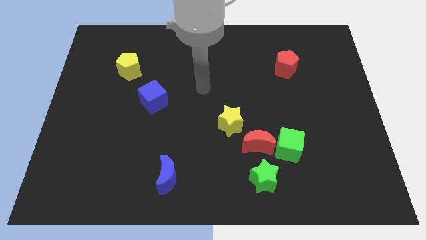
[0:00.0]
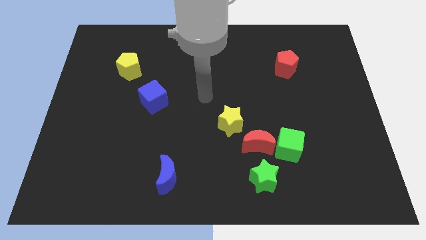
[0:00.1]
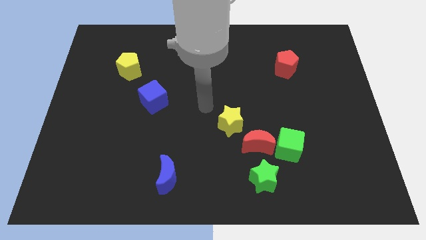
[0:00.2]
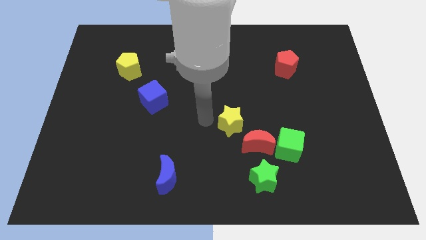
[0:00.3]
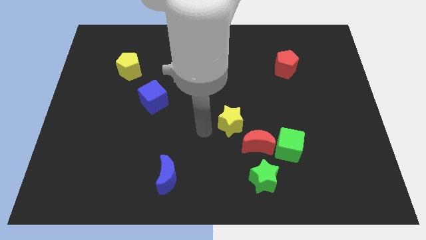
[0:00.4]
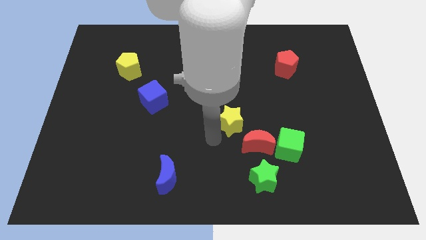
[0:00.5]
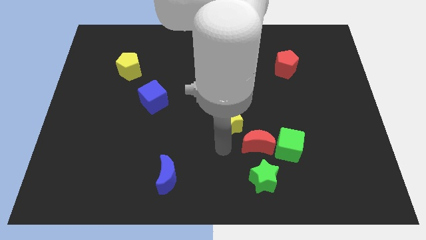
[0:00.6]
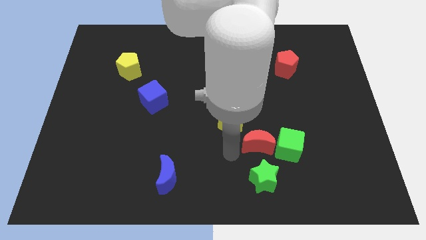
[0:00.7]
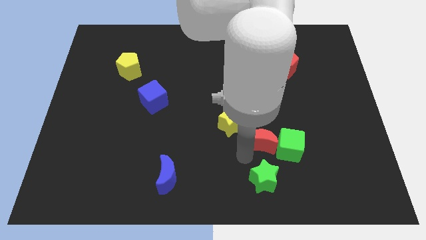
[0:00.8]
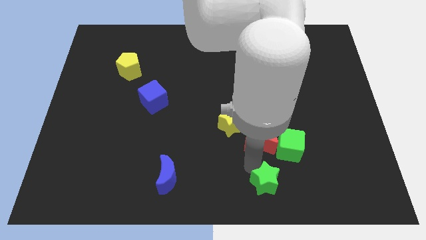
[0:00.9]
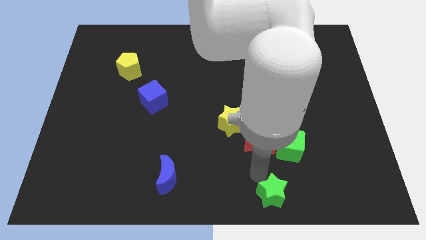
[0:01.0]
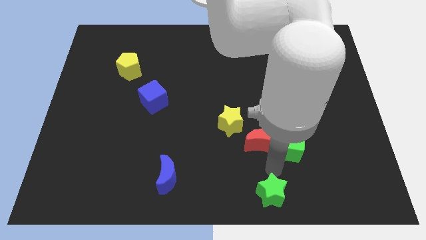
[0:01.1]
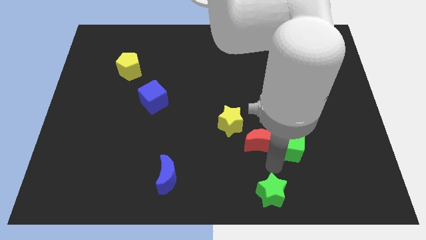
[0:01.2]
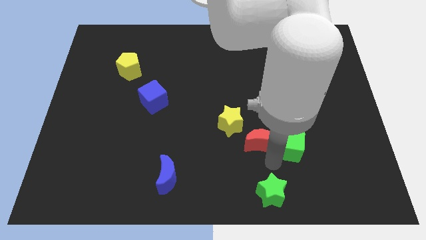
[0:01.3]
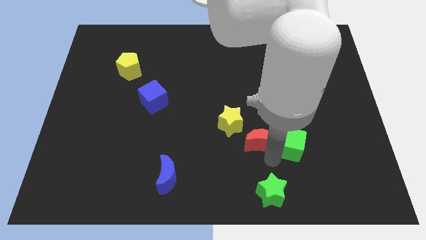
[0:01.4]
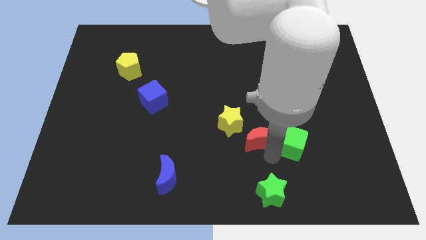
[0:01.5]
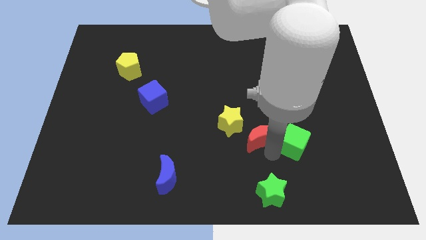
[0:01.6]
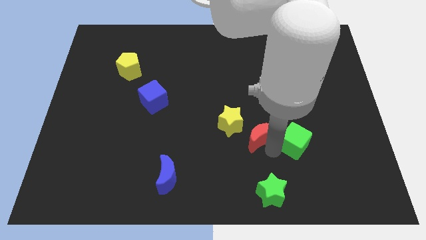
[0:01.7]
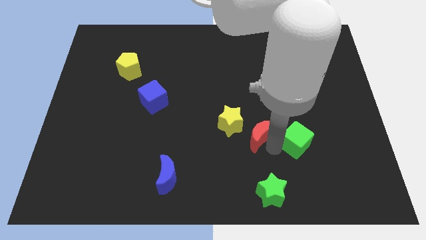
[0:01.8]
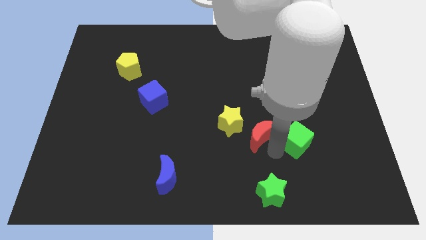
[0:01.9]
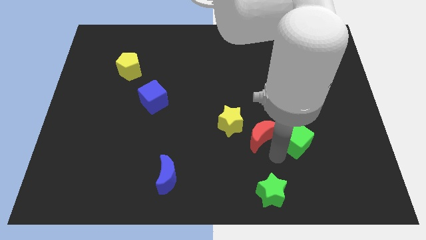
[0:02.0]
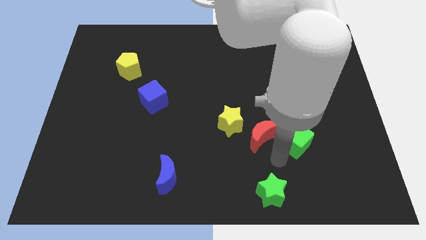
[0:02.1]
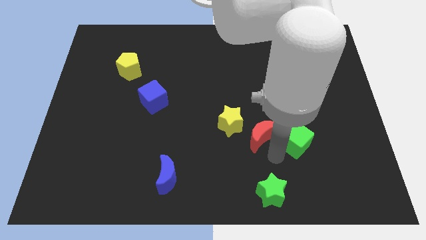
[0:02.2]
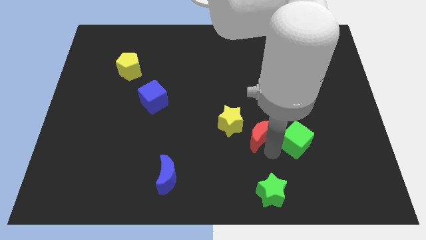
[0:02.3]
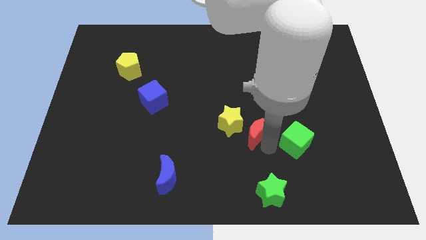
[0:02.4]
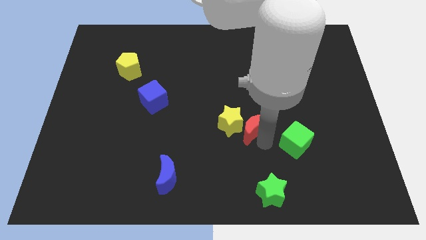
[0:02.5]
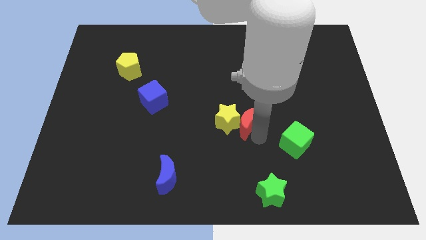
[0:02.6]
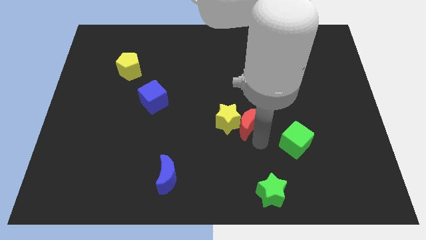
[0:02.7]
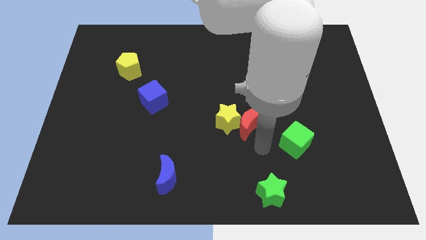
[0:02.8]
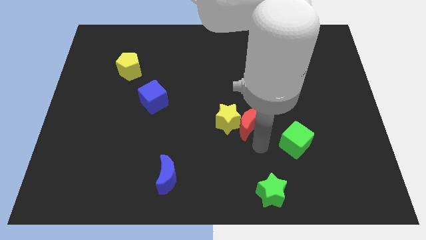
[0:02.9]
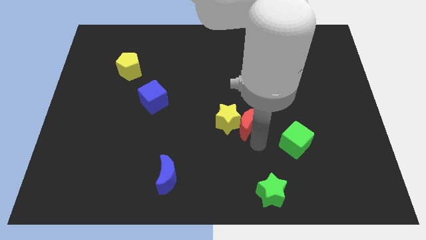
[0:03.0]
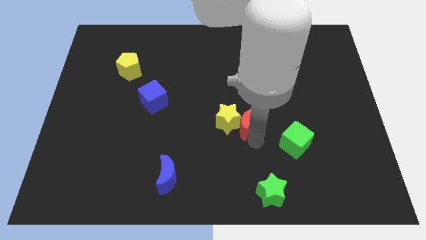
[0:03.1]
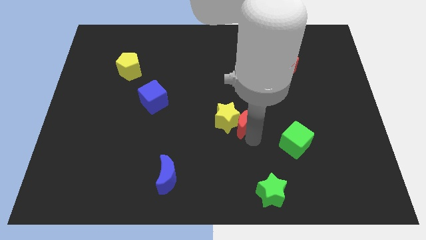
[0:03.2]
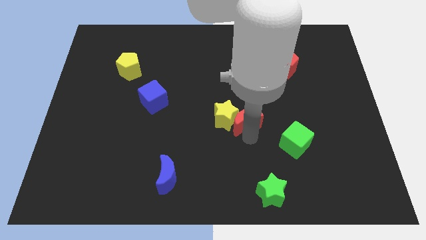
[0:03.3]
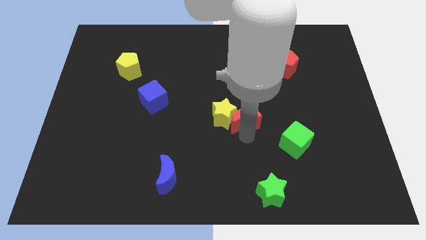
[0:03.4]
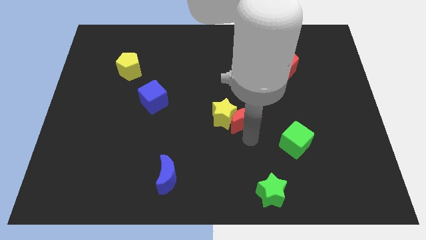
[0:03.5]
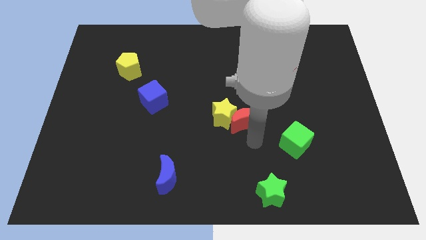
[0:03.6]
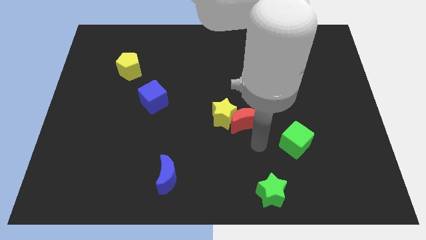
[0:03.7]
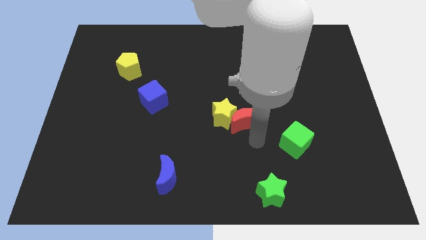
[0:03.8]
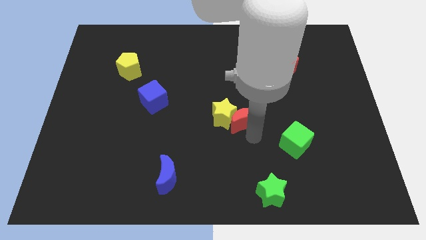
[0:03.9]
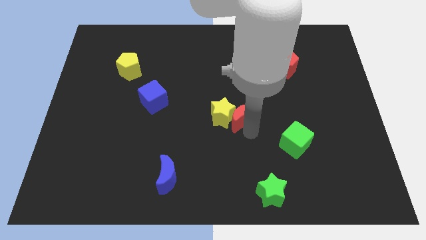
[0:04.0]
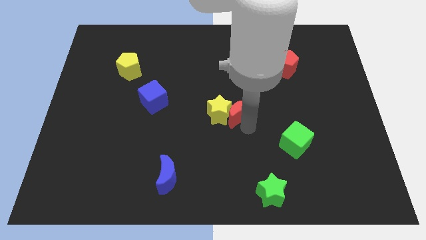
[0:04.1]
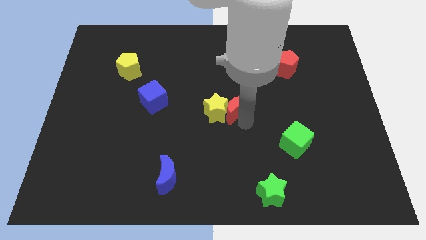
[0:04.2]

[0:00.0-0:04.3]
move the red moon away from the green cube, yellow star, and green star

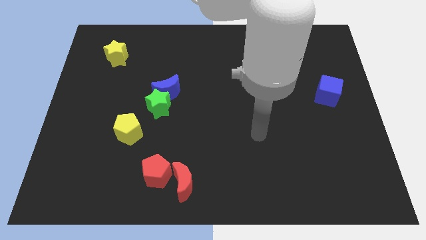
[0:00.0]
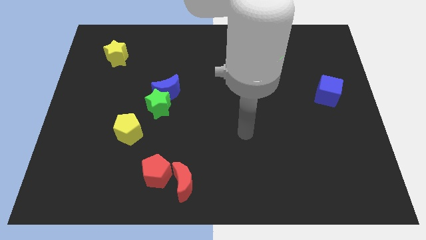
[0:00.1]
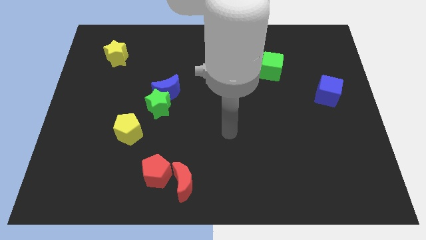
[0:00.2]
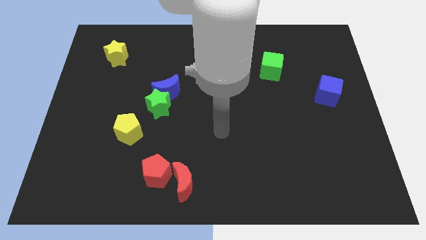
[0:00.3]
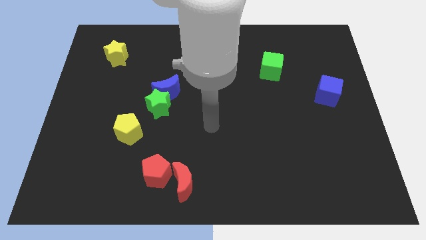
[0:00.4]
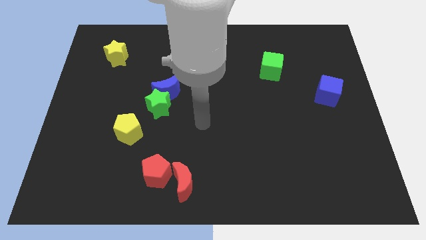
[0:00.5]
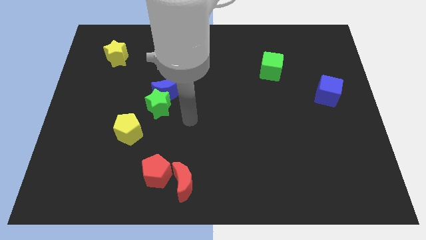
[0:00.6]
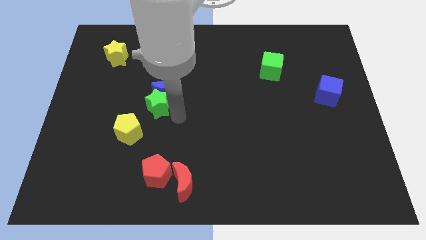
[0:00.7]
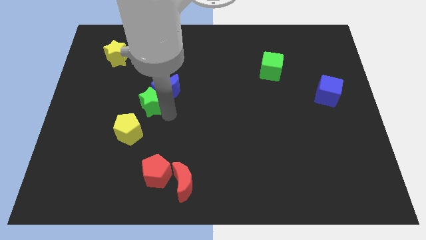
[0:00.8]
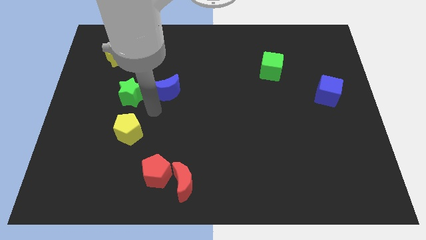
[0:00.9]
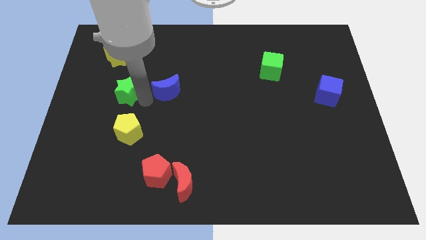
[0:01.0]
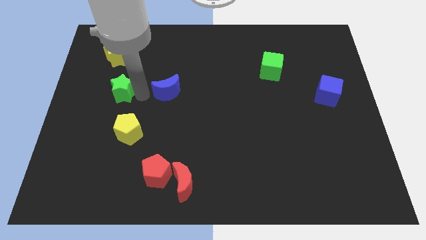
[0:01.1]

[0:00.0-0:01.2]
pull the blue moon apart from the green star

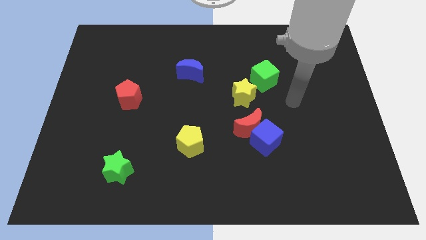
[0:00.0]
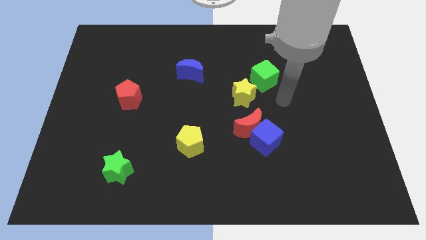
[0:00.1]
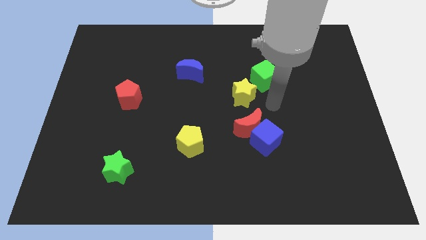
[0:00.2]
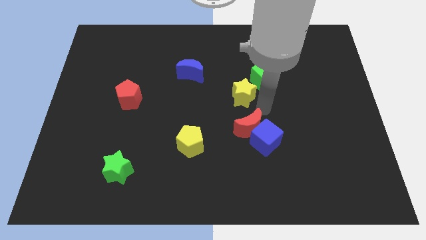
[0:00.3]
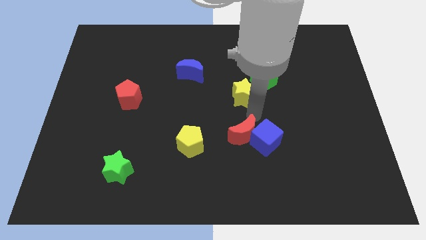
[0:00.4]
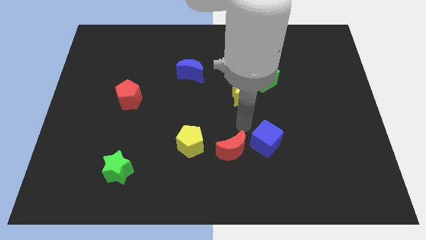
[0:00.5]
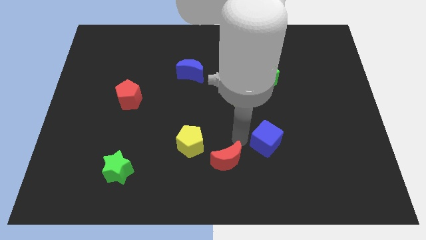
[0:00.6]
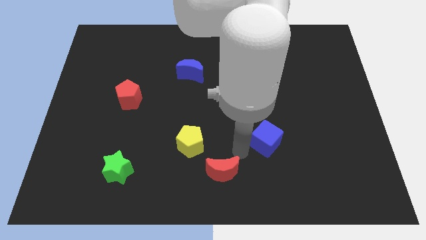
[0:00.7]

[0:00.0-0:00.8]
separate the blue cube from the red moon

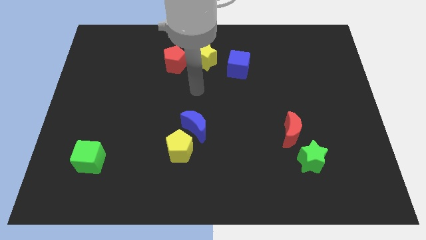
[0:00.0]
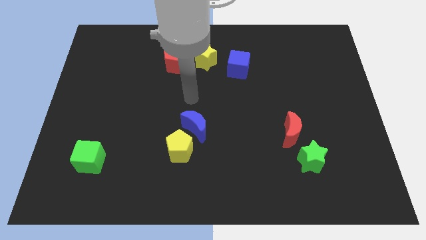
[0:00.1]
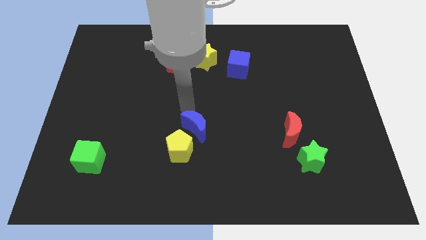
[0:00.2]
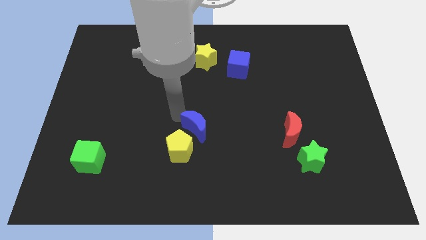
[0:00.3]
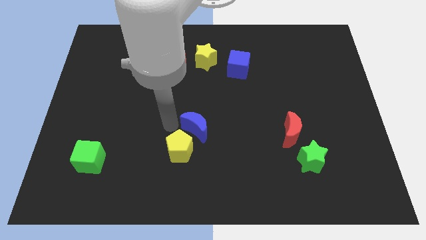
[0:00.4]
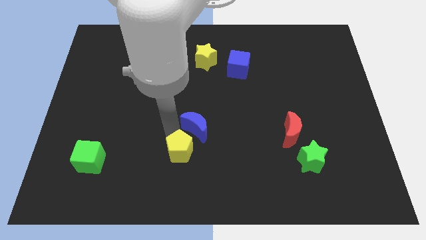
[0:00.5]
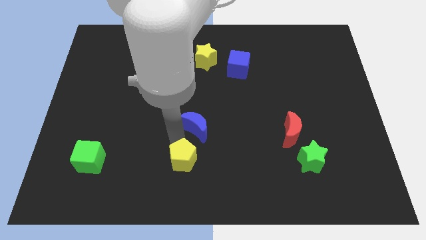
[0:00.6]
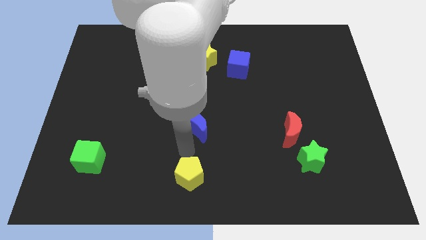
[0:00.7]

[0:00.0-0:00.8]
pull the blue moon apart from the yellow pentagon

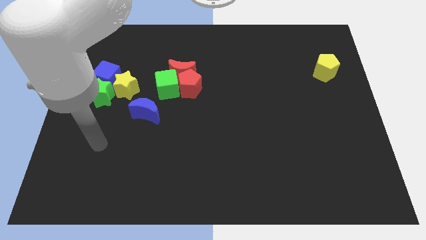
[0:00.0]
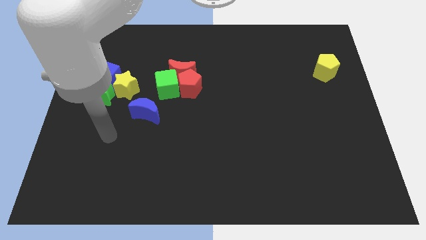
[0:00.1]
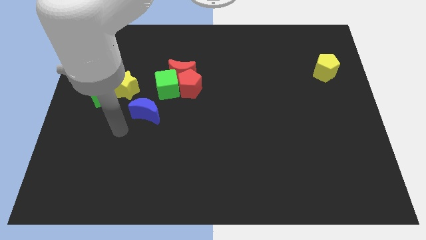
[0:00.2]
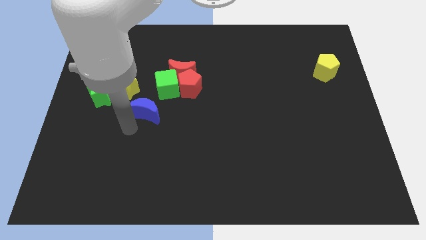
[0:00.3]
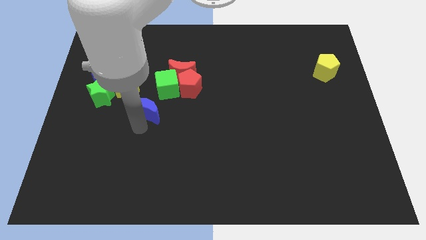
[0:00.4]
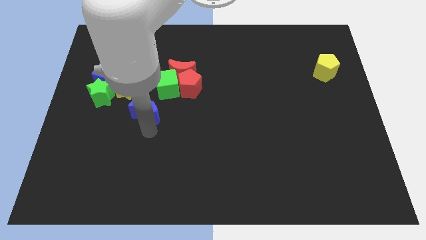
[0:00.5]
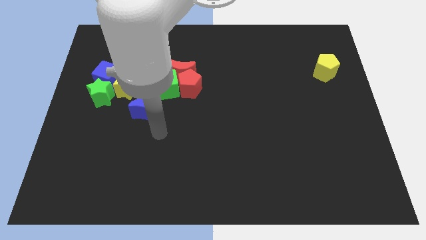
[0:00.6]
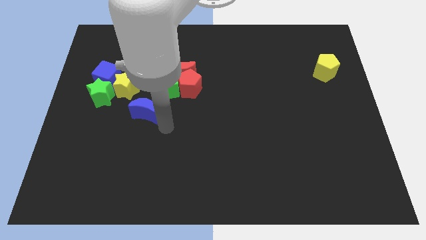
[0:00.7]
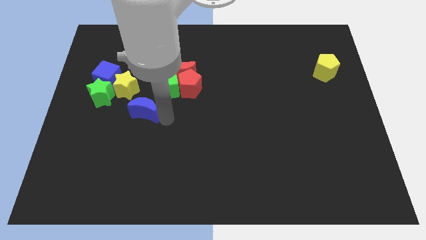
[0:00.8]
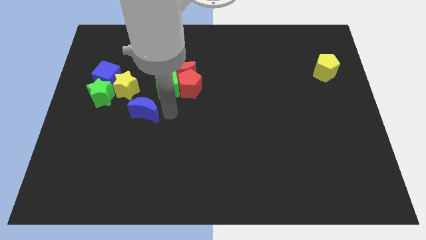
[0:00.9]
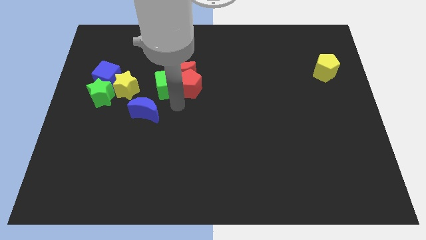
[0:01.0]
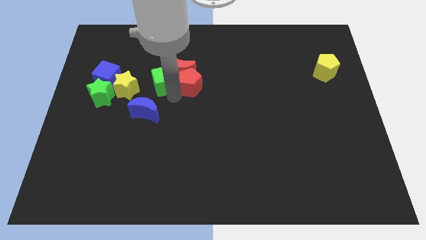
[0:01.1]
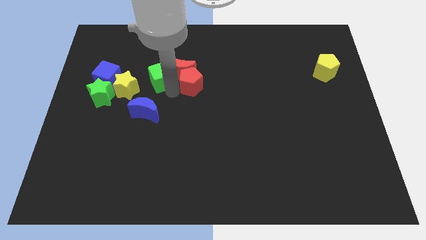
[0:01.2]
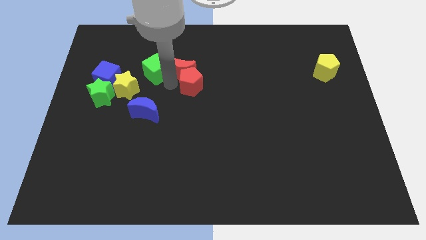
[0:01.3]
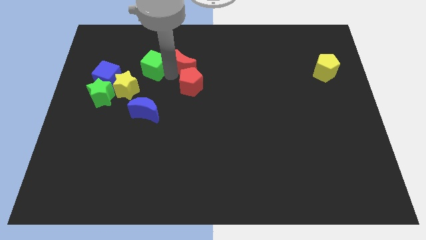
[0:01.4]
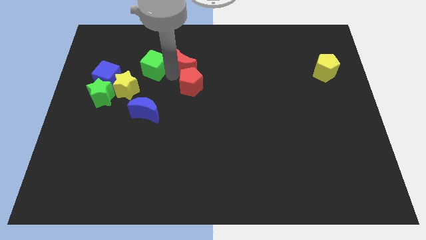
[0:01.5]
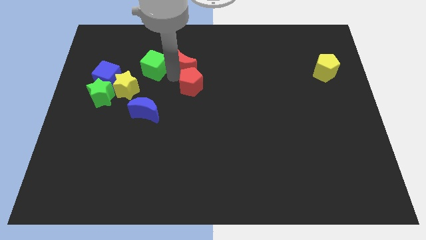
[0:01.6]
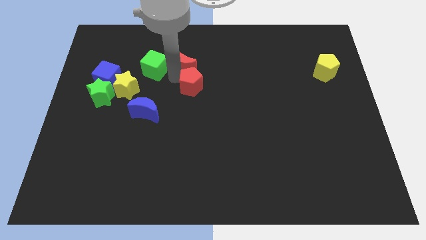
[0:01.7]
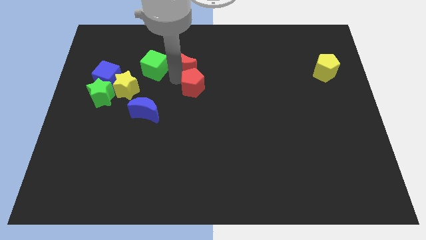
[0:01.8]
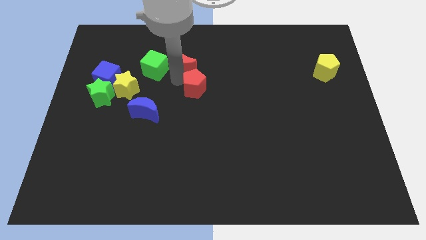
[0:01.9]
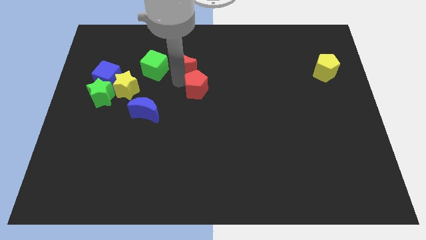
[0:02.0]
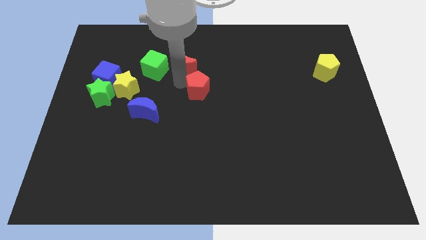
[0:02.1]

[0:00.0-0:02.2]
pull the red pentagon apart from the red moon and green cube
